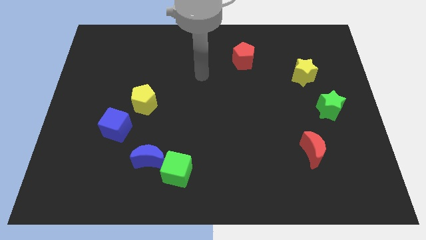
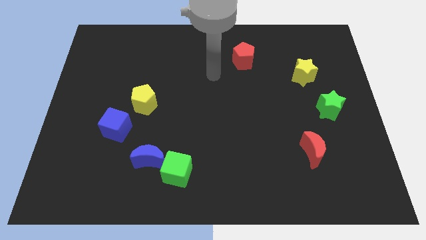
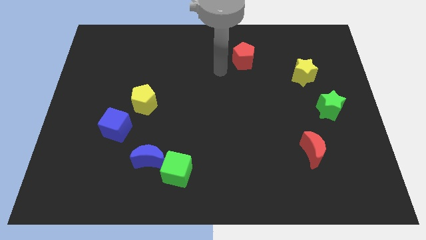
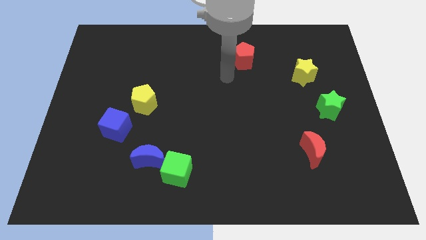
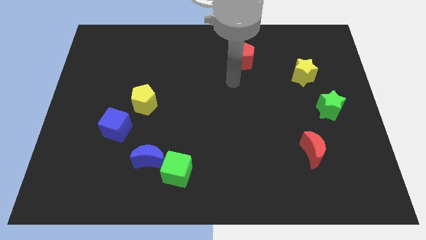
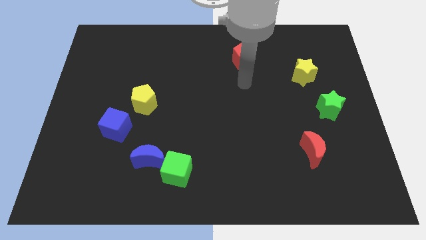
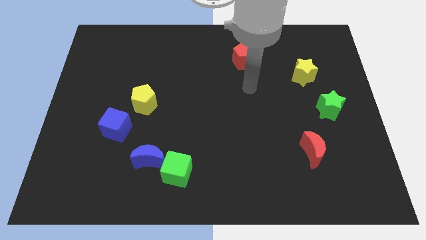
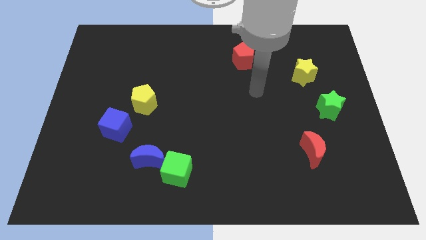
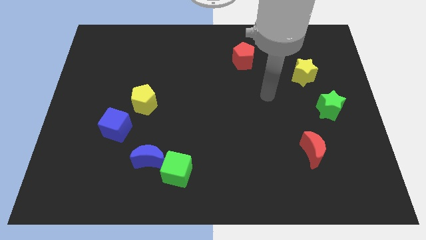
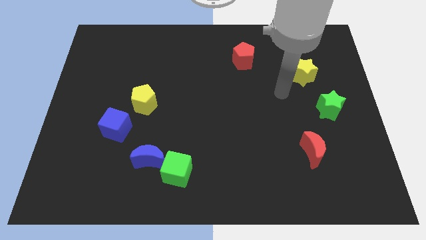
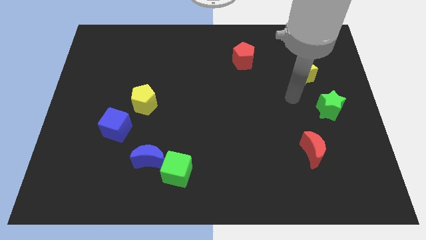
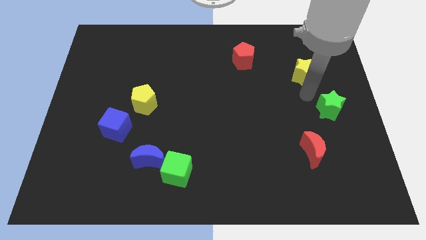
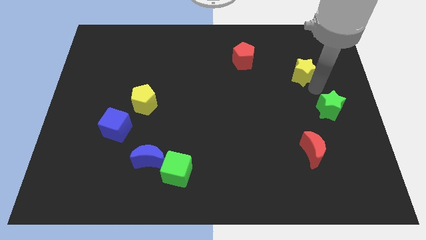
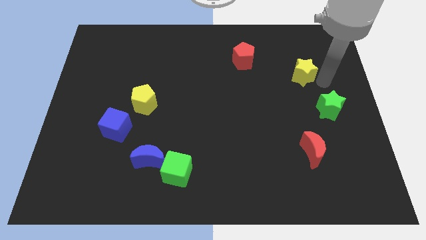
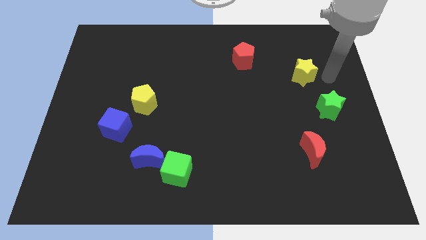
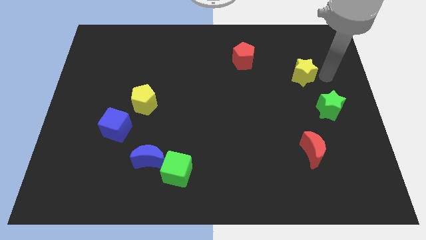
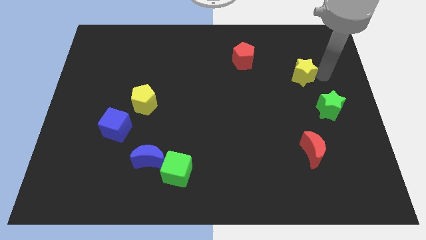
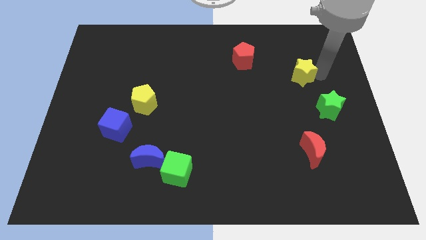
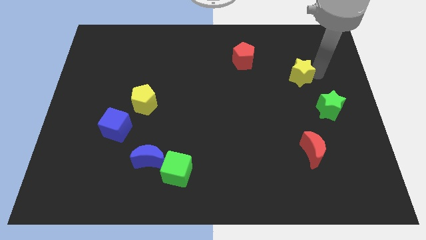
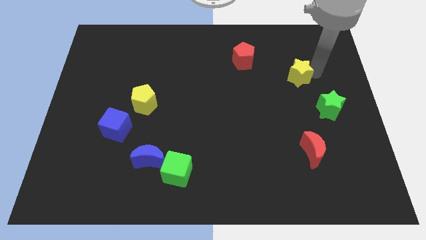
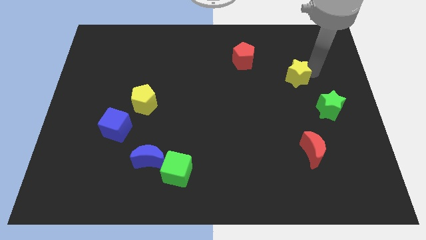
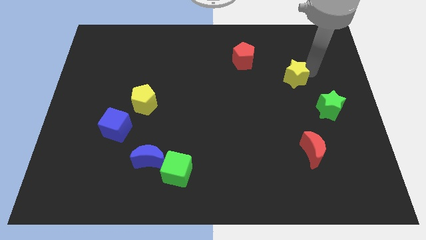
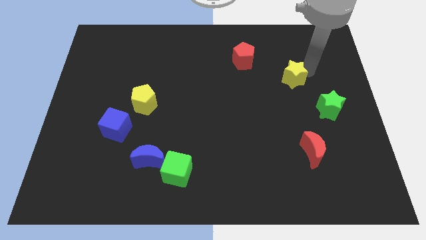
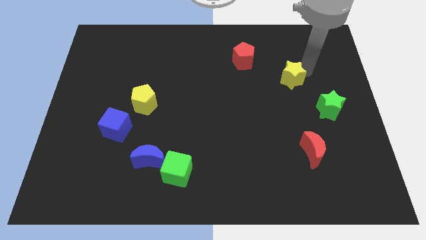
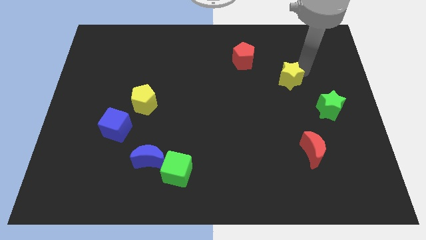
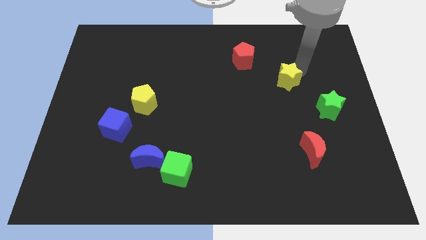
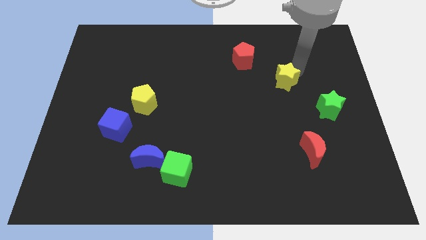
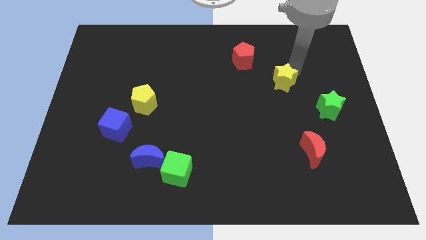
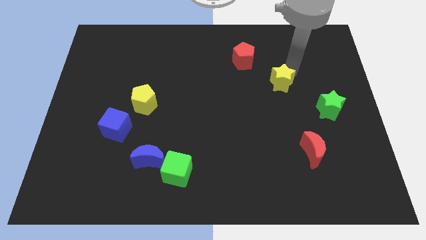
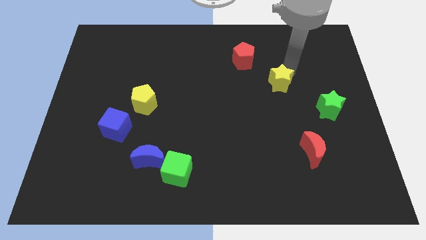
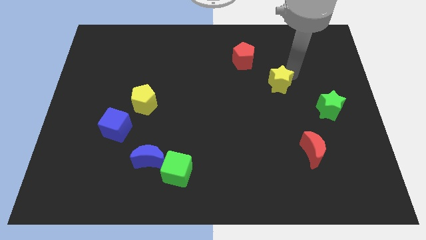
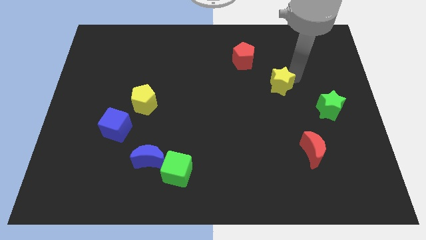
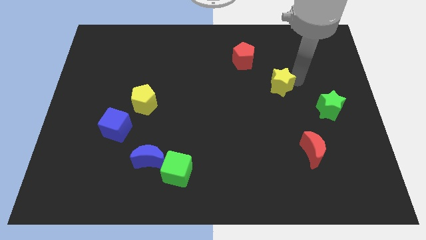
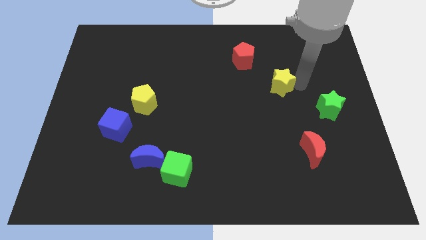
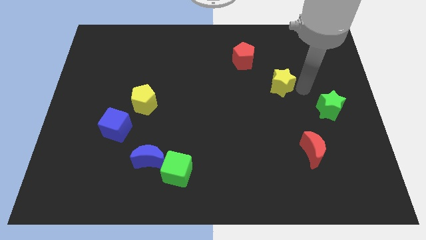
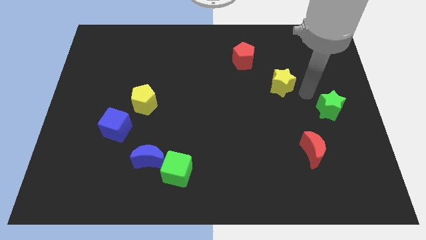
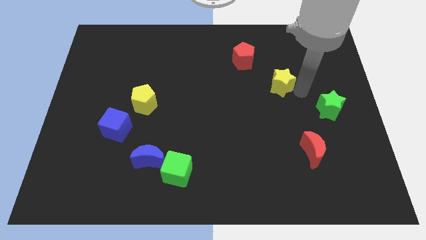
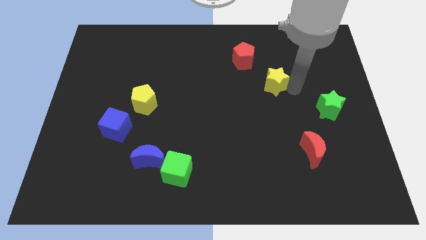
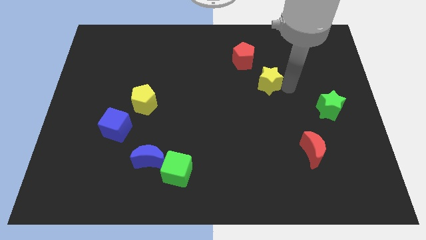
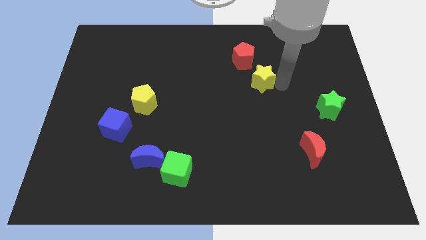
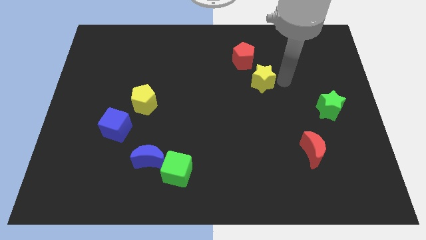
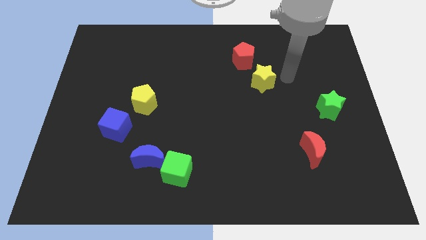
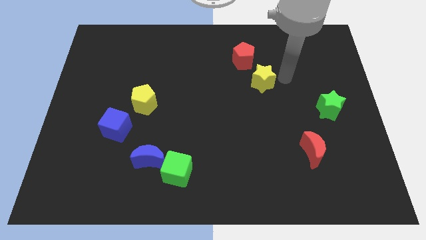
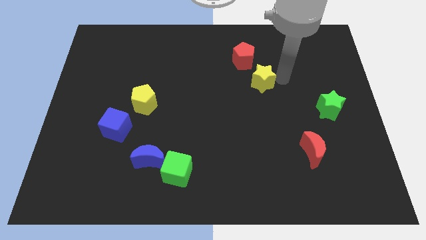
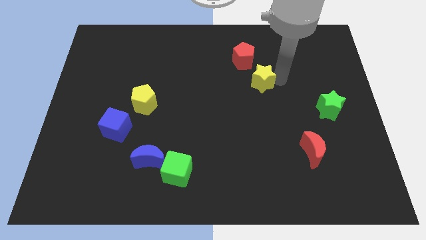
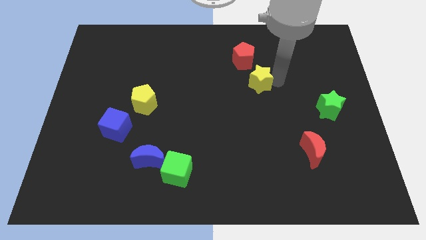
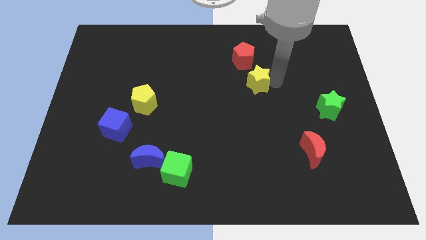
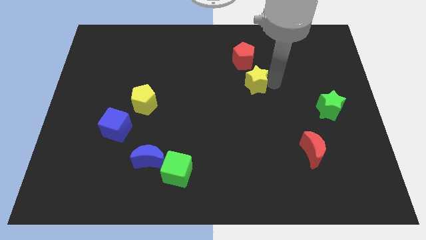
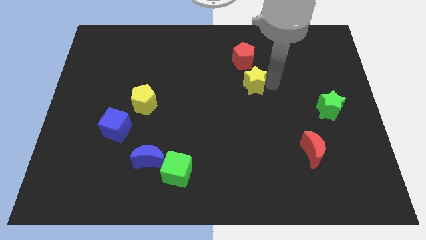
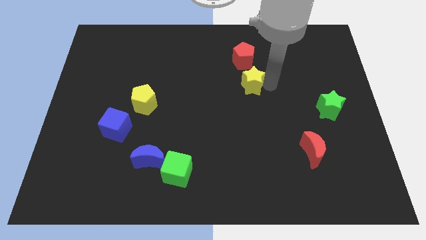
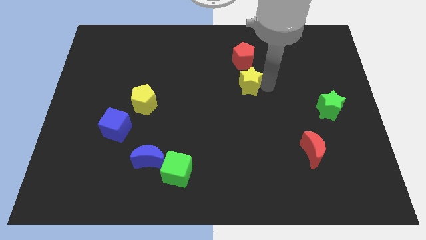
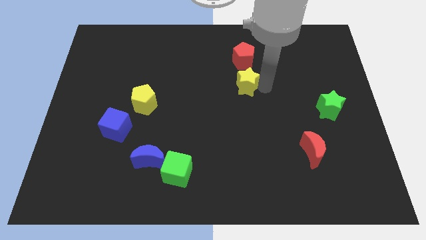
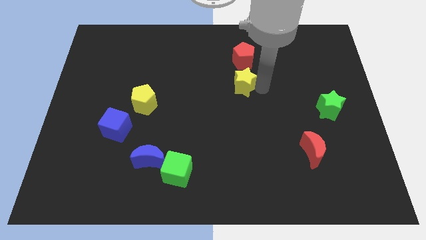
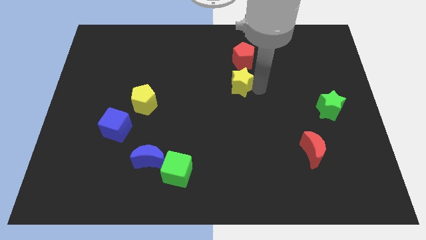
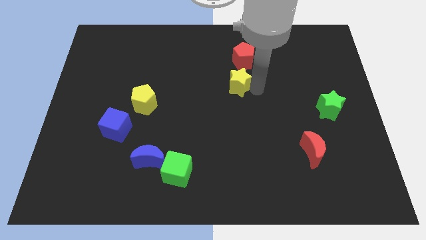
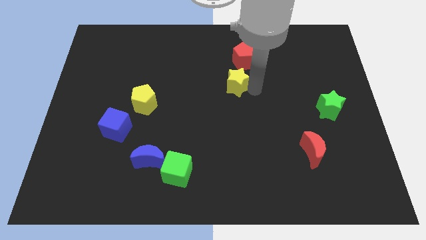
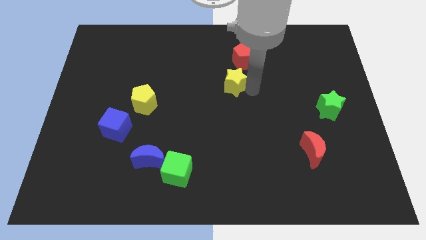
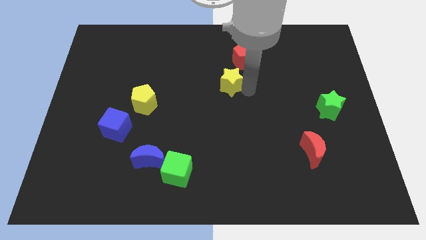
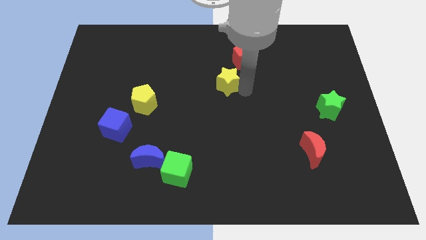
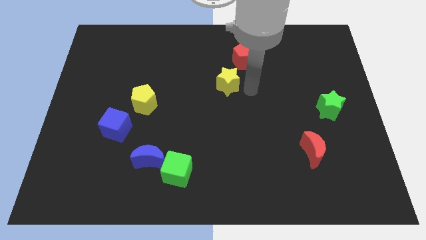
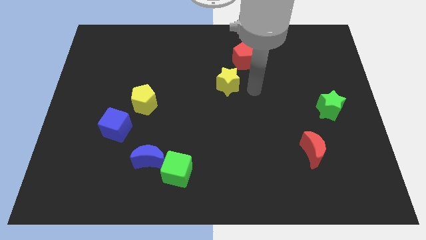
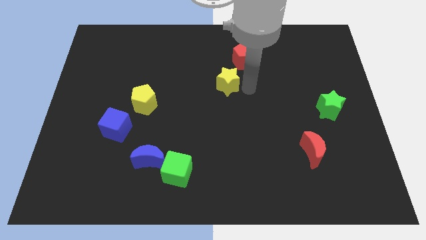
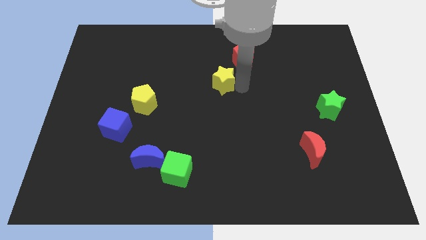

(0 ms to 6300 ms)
move the yellow star to the left

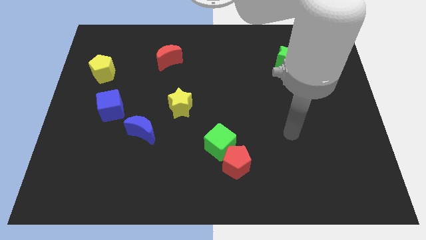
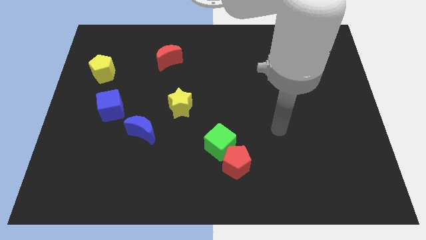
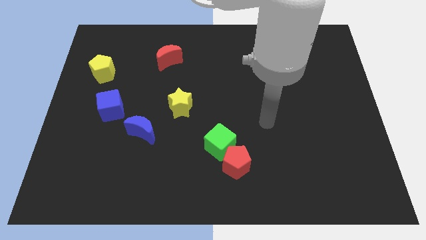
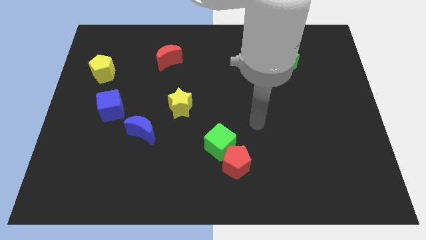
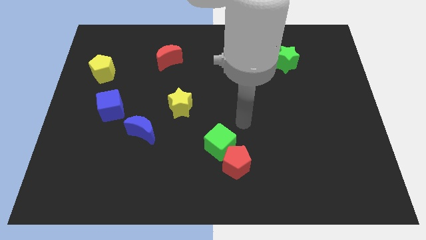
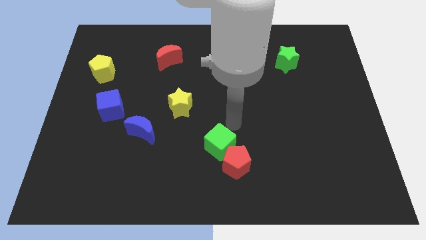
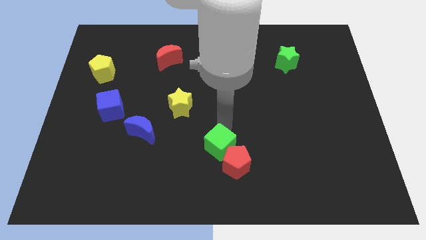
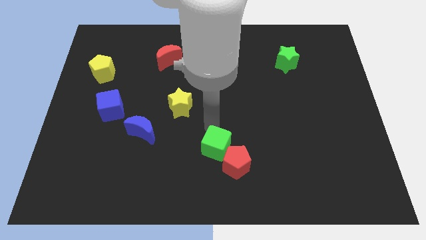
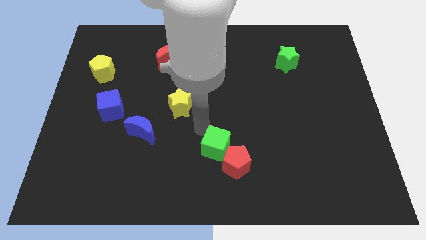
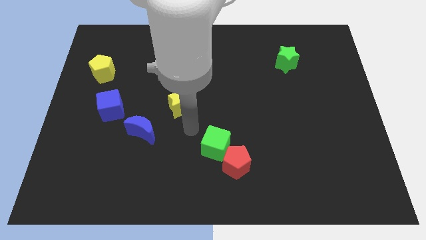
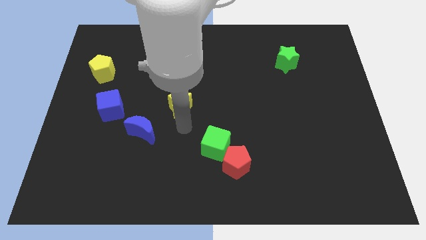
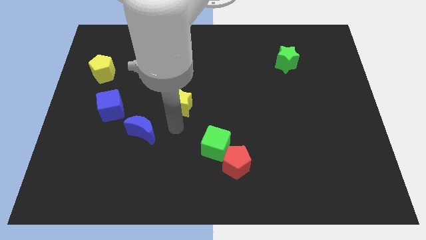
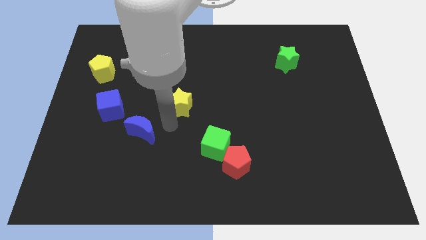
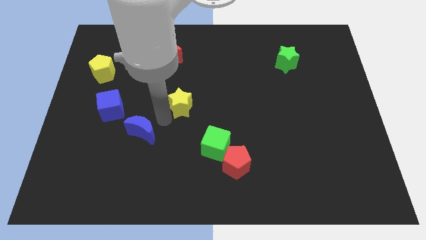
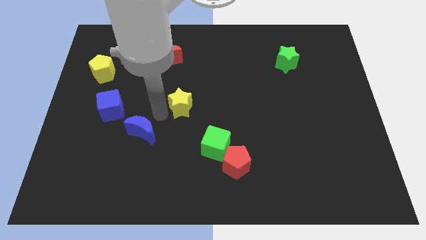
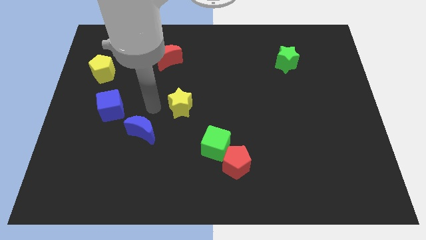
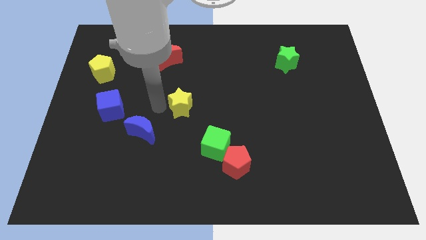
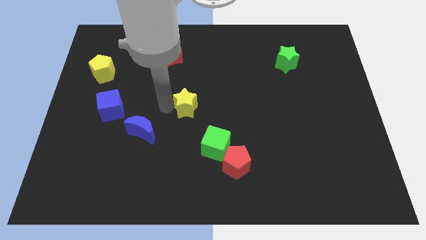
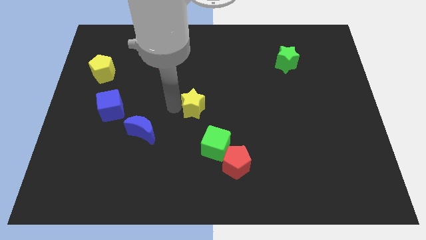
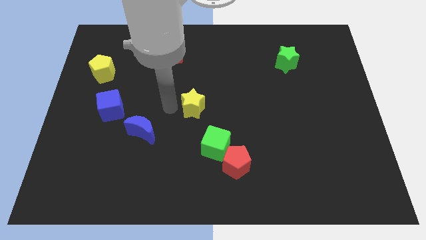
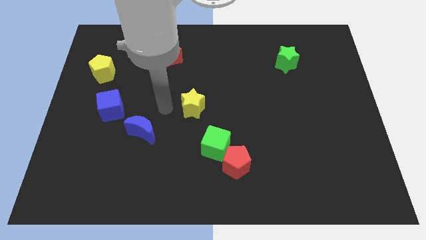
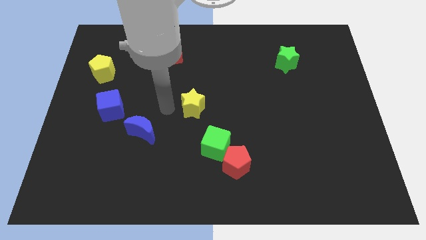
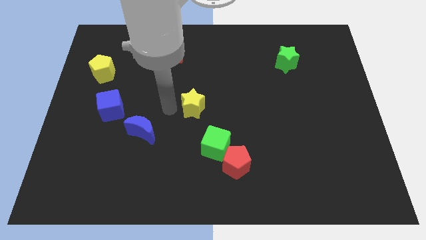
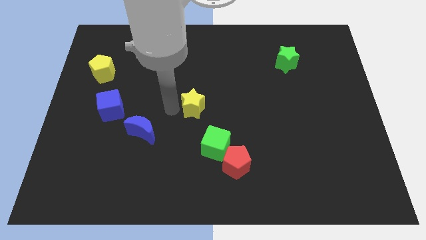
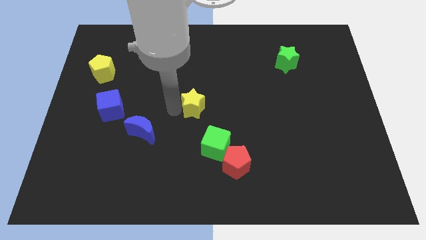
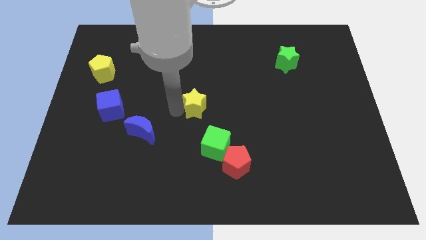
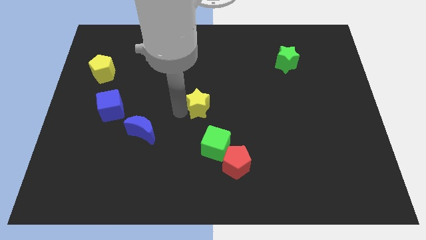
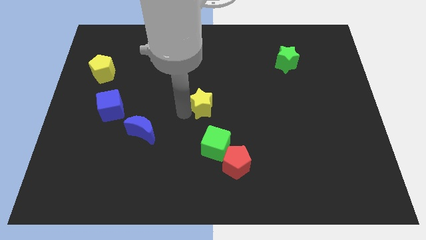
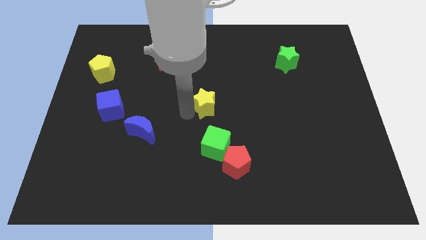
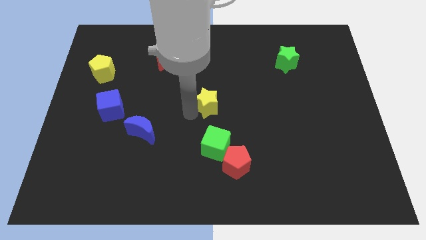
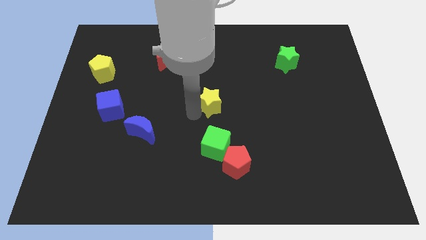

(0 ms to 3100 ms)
slide the yellow star right slightly
